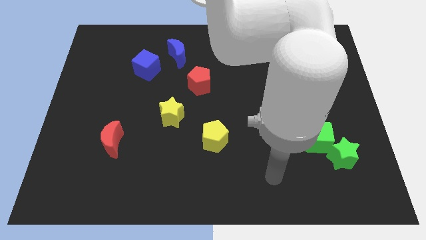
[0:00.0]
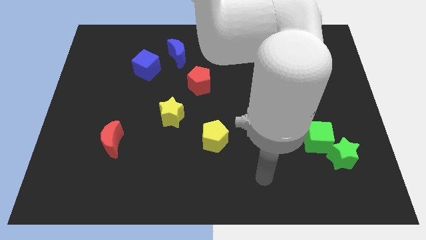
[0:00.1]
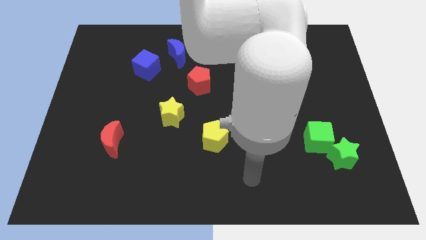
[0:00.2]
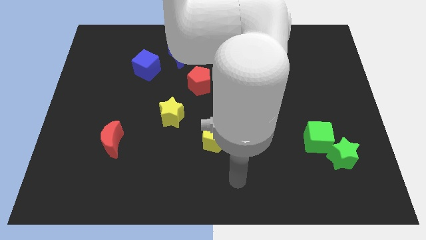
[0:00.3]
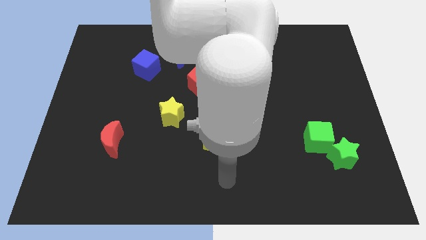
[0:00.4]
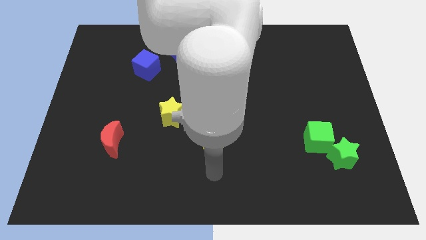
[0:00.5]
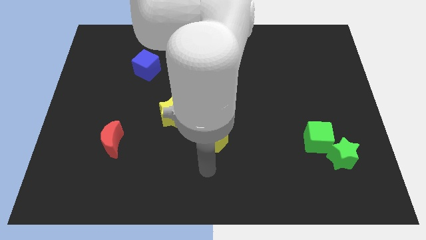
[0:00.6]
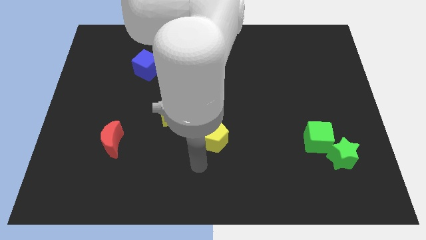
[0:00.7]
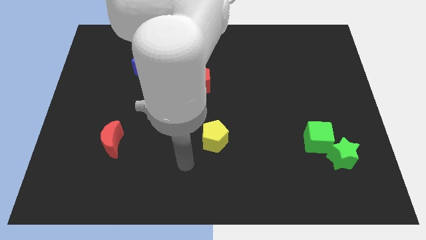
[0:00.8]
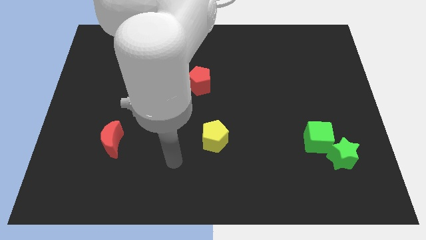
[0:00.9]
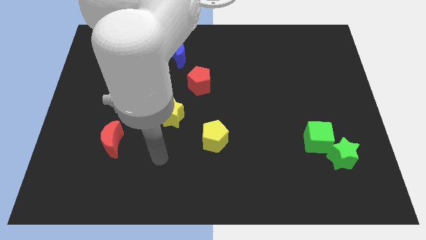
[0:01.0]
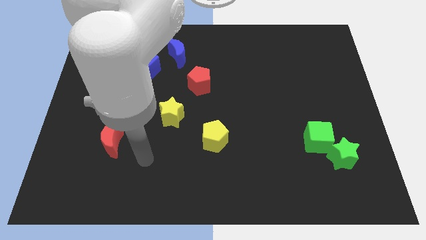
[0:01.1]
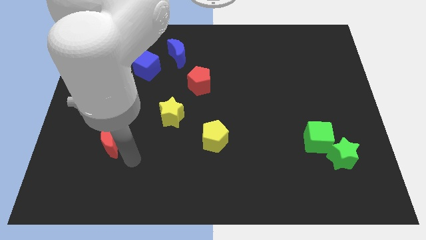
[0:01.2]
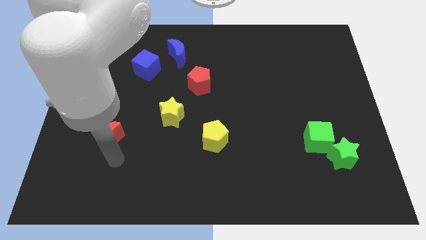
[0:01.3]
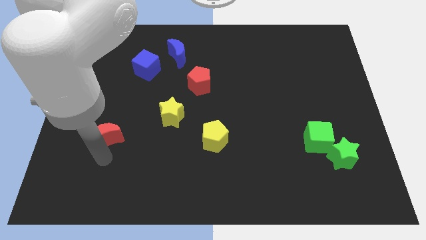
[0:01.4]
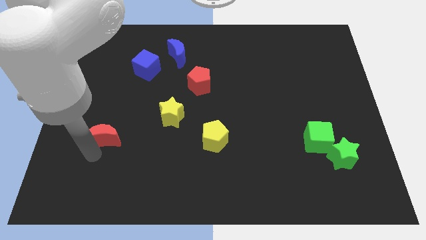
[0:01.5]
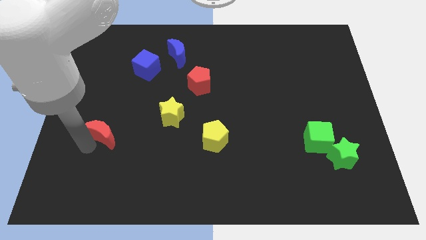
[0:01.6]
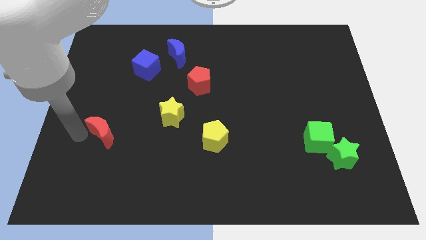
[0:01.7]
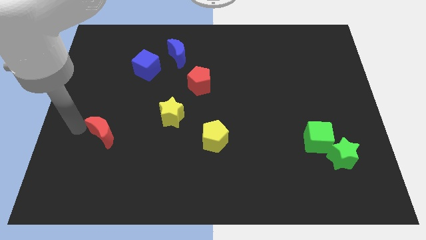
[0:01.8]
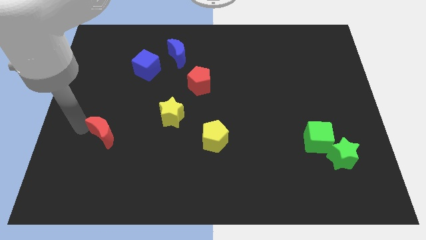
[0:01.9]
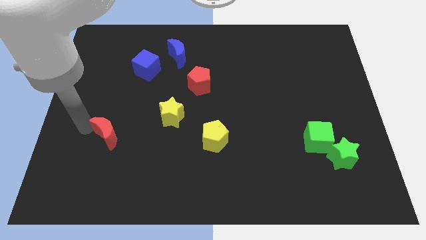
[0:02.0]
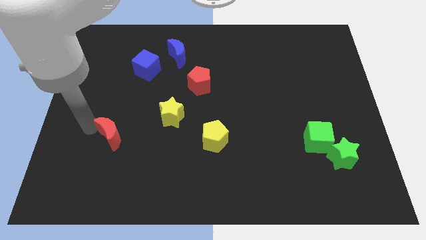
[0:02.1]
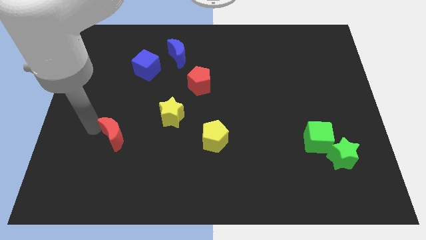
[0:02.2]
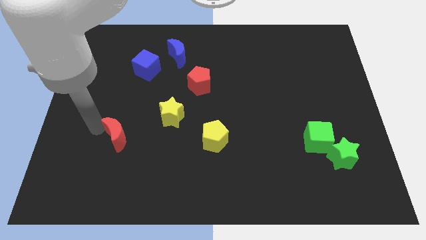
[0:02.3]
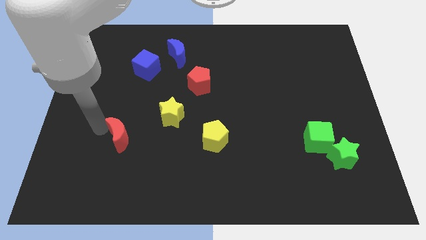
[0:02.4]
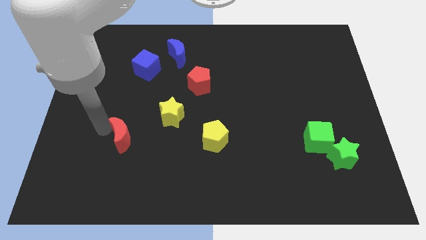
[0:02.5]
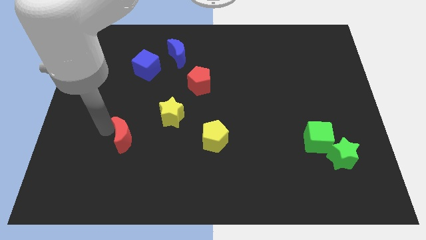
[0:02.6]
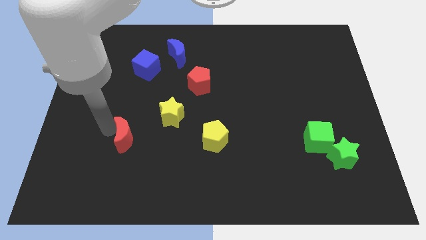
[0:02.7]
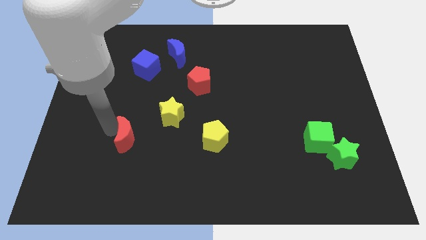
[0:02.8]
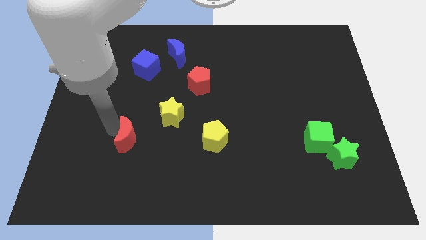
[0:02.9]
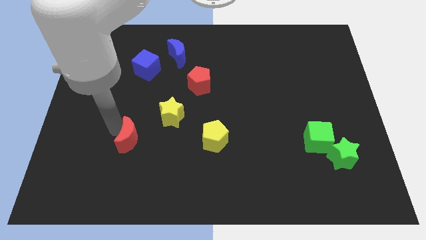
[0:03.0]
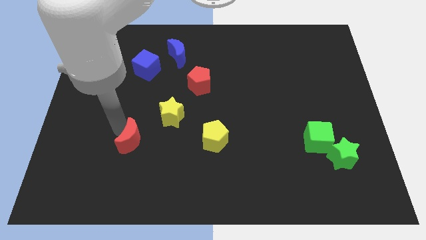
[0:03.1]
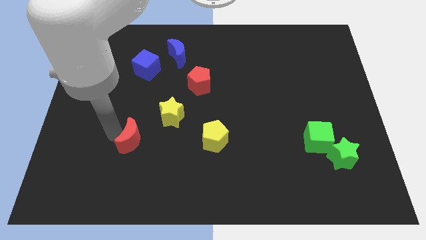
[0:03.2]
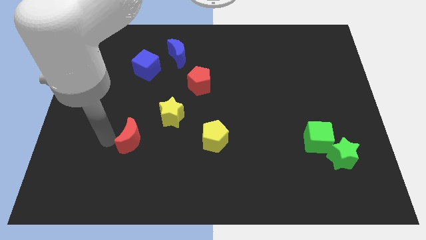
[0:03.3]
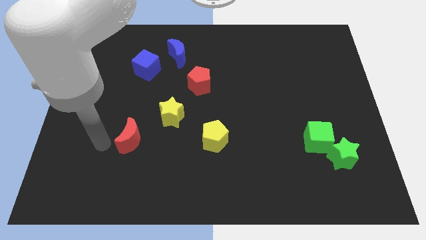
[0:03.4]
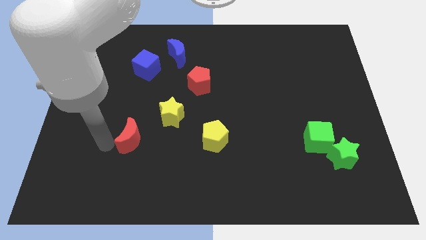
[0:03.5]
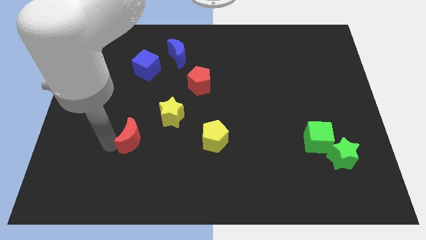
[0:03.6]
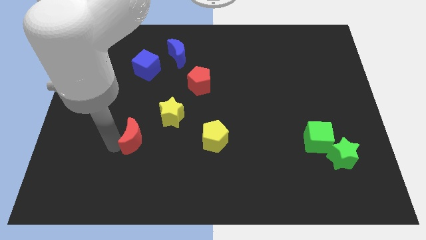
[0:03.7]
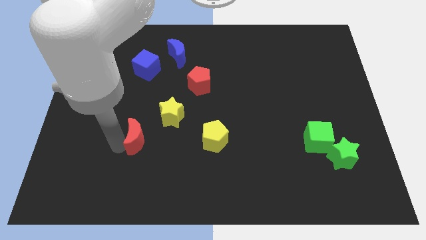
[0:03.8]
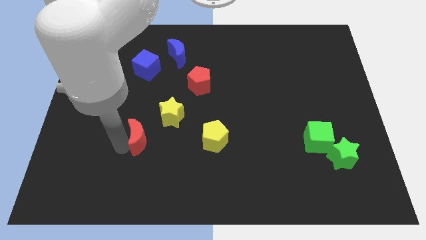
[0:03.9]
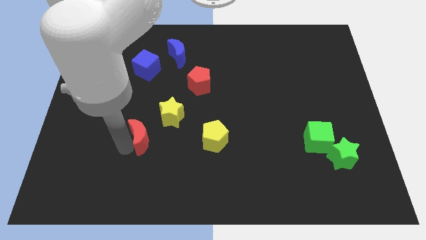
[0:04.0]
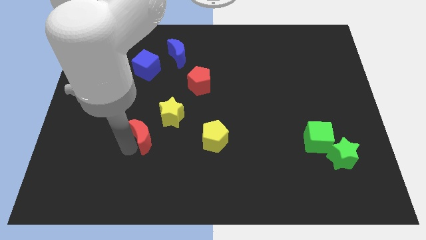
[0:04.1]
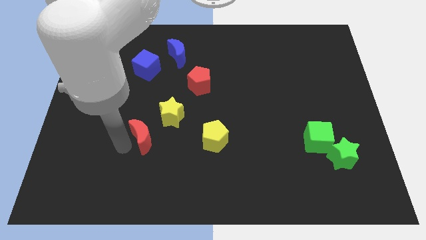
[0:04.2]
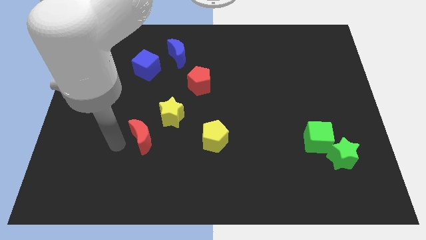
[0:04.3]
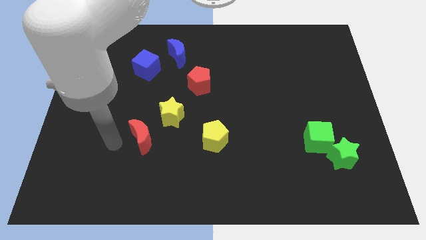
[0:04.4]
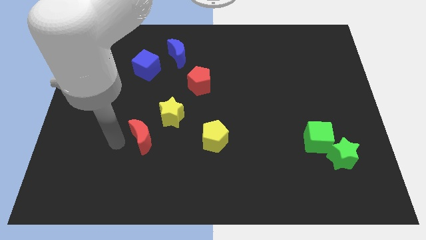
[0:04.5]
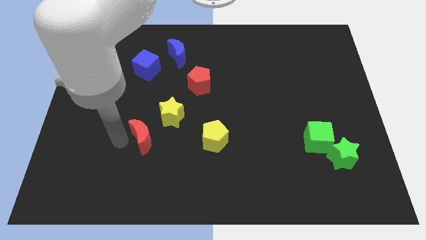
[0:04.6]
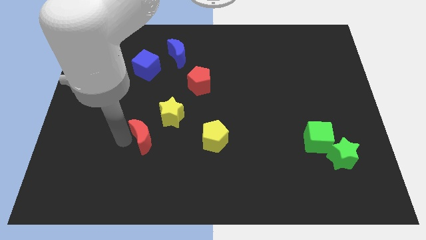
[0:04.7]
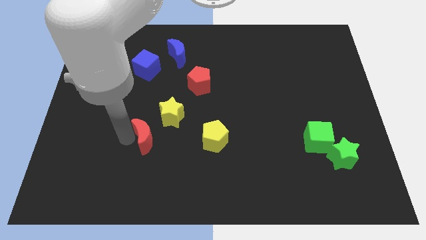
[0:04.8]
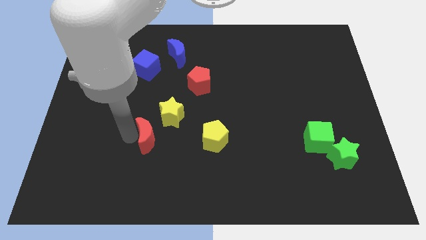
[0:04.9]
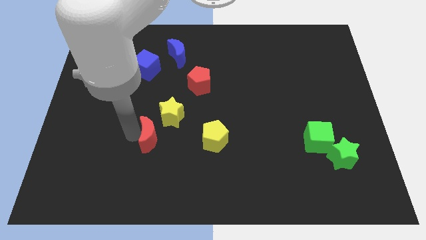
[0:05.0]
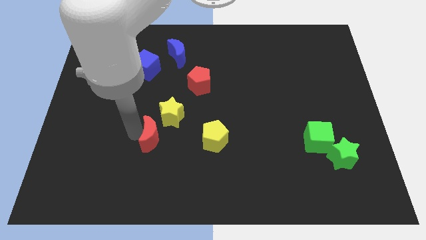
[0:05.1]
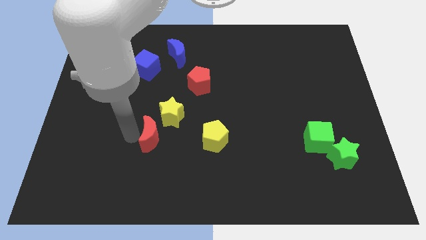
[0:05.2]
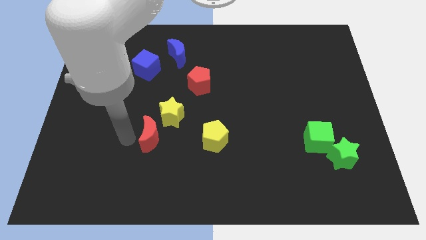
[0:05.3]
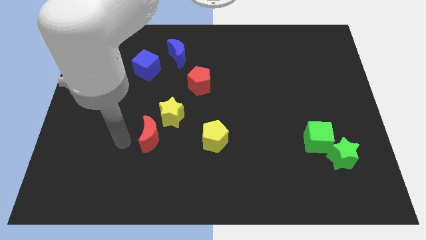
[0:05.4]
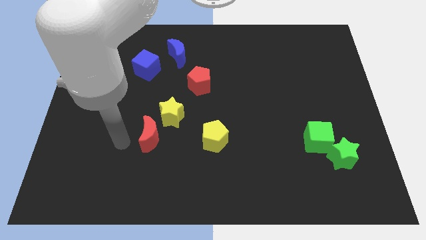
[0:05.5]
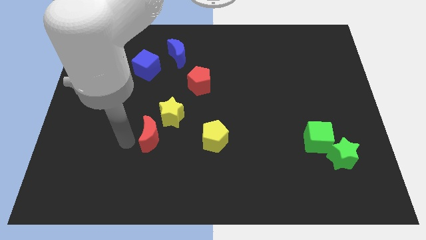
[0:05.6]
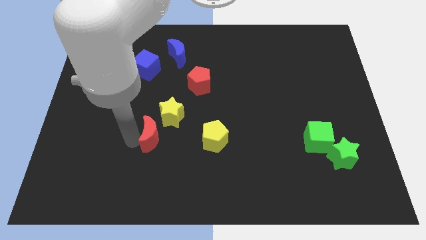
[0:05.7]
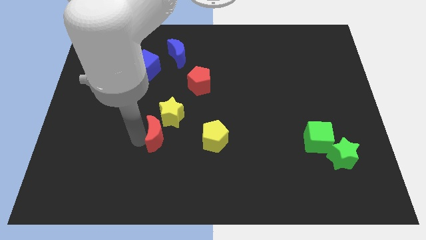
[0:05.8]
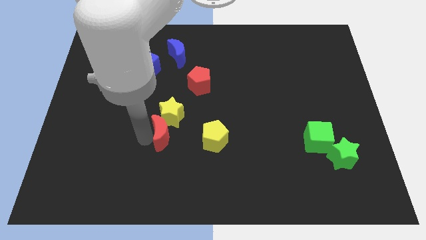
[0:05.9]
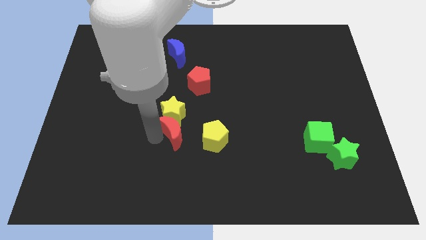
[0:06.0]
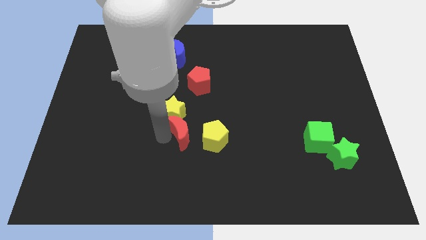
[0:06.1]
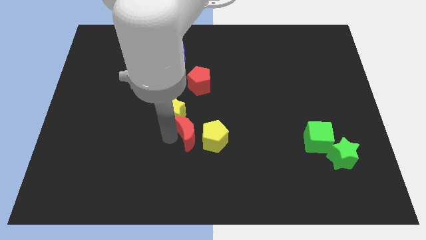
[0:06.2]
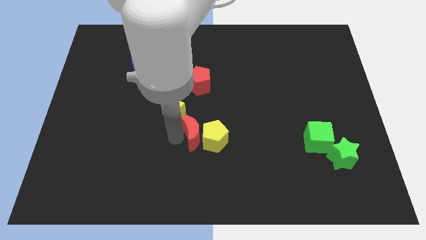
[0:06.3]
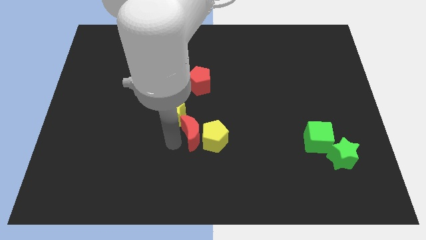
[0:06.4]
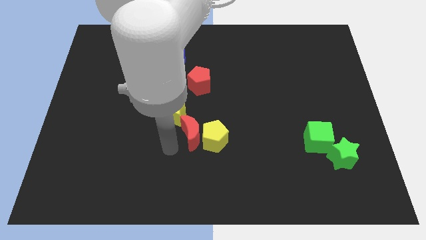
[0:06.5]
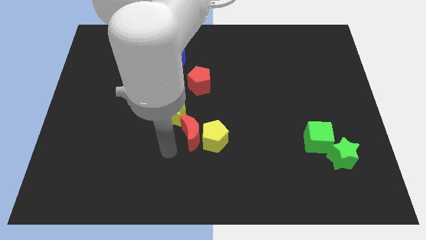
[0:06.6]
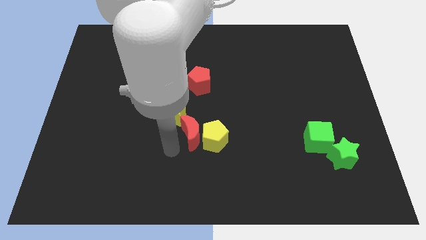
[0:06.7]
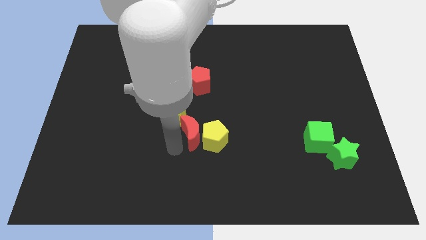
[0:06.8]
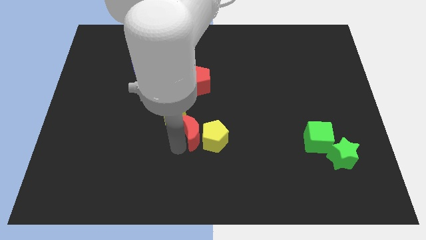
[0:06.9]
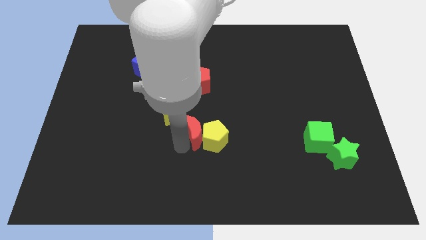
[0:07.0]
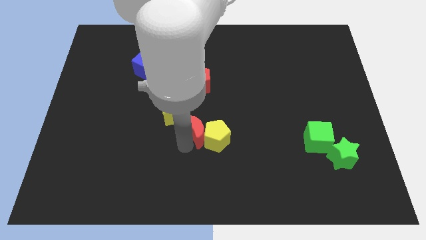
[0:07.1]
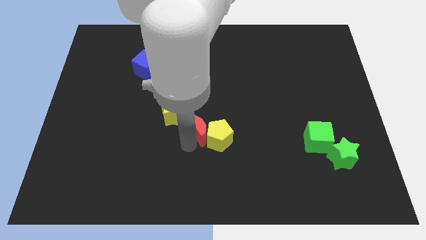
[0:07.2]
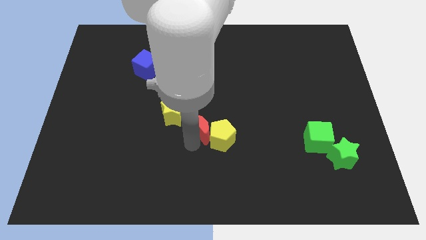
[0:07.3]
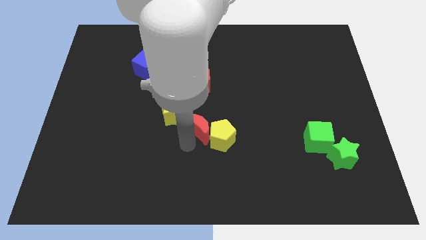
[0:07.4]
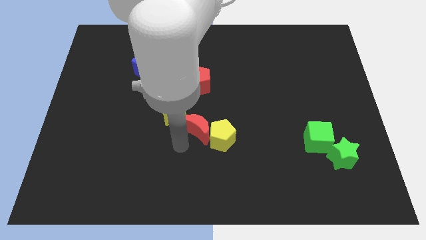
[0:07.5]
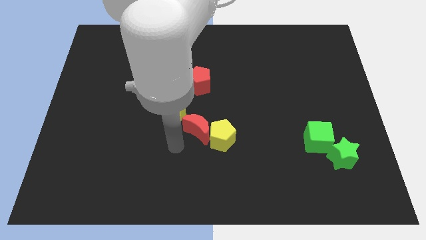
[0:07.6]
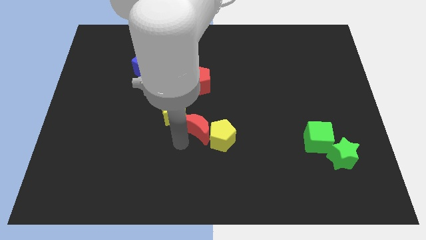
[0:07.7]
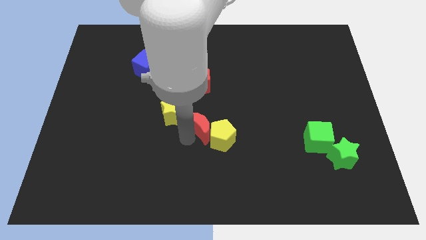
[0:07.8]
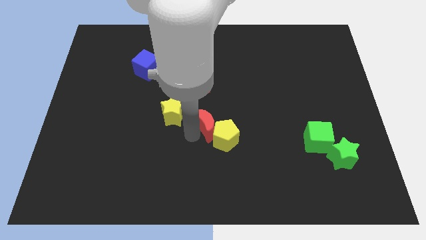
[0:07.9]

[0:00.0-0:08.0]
push the red moon to the right

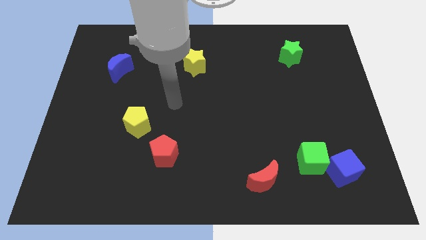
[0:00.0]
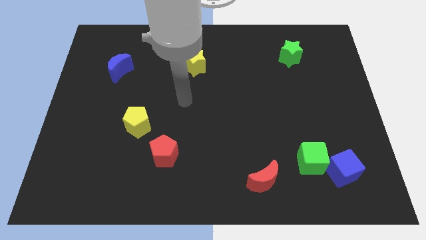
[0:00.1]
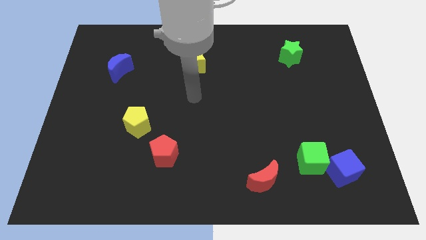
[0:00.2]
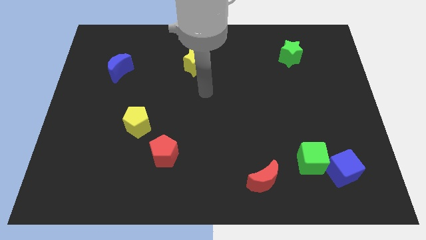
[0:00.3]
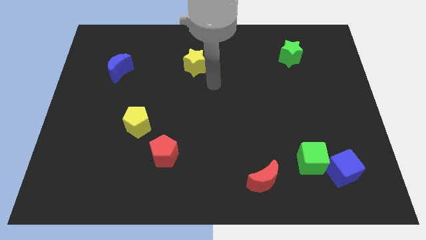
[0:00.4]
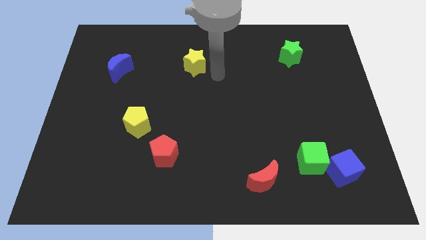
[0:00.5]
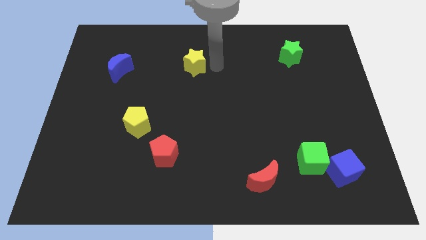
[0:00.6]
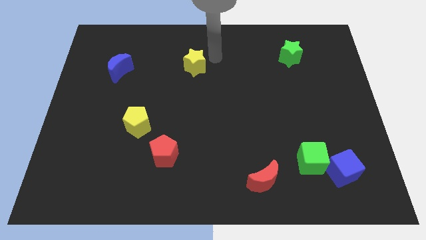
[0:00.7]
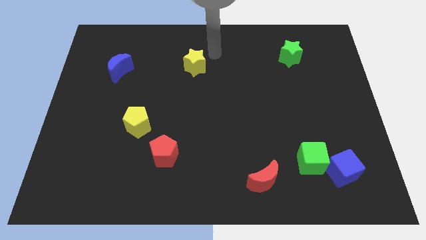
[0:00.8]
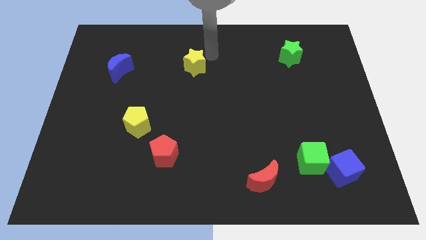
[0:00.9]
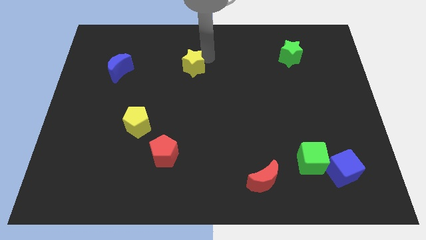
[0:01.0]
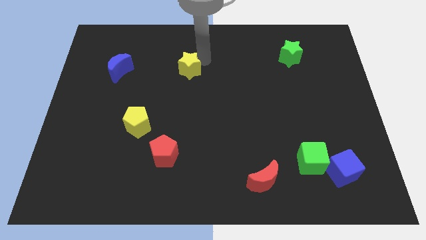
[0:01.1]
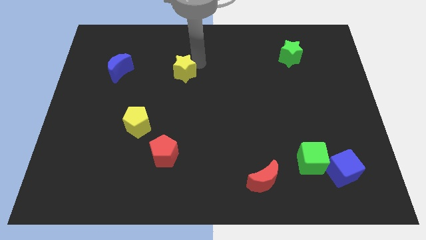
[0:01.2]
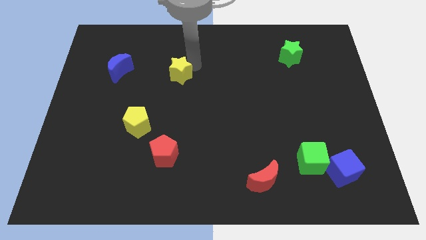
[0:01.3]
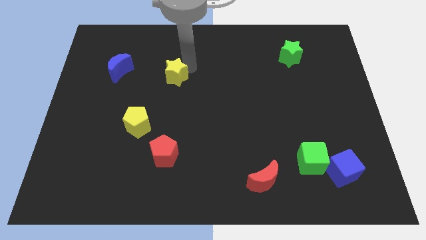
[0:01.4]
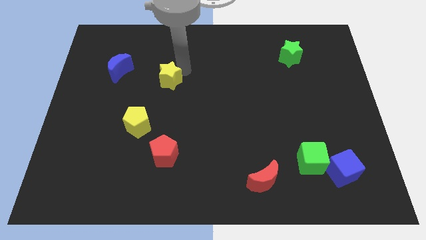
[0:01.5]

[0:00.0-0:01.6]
slide the yellow star slightly down and then left
